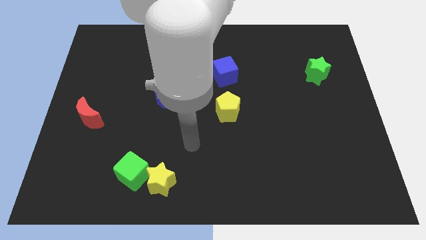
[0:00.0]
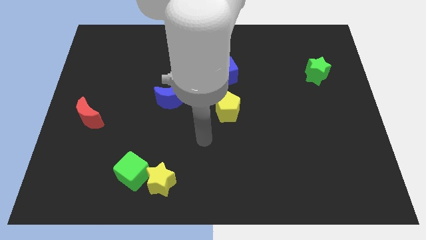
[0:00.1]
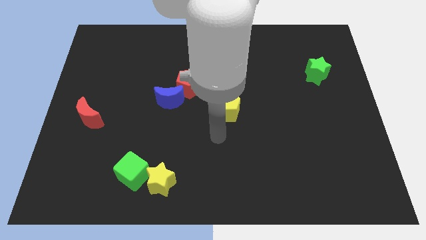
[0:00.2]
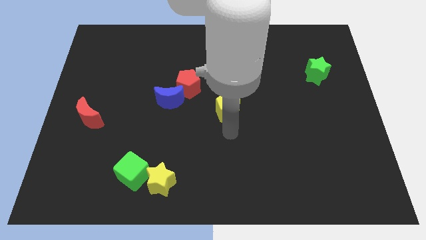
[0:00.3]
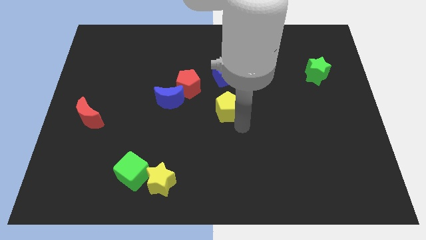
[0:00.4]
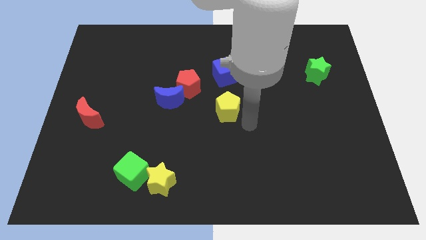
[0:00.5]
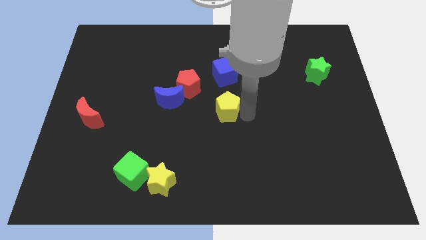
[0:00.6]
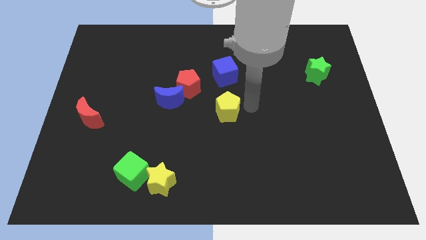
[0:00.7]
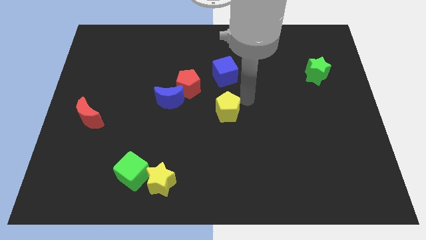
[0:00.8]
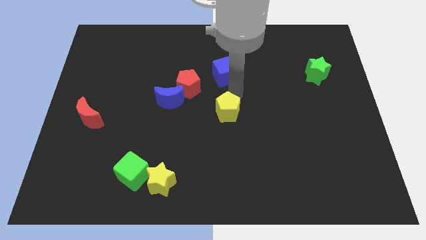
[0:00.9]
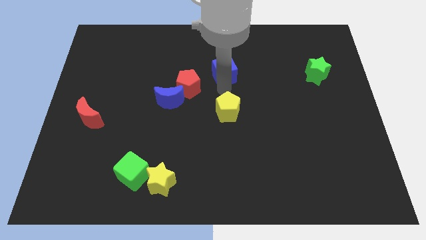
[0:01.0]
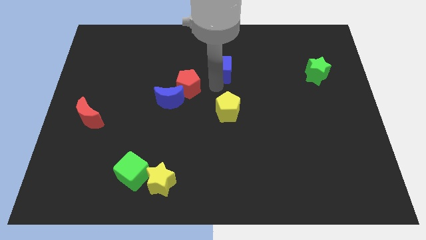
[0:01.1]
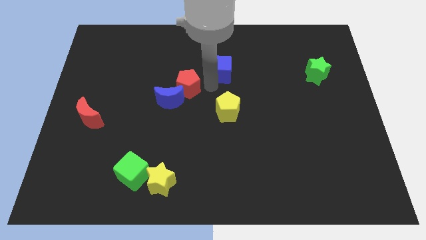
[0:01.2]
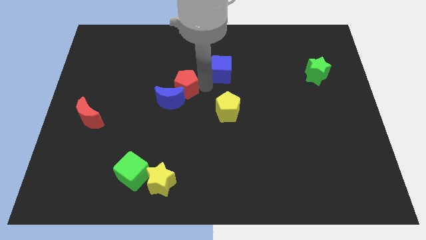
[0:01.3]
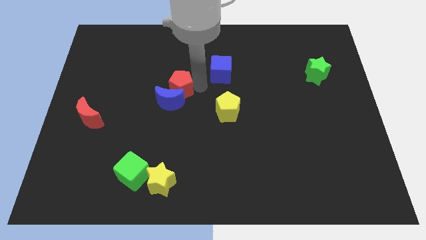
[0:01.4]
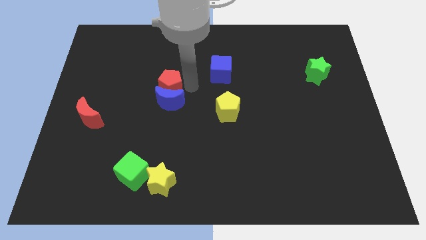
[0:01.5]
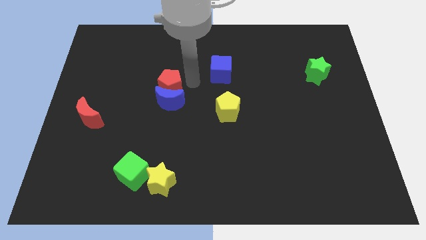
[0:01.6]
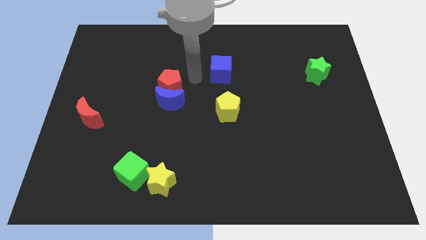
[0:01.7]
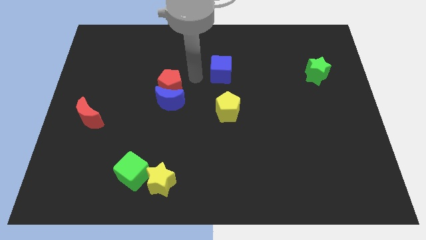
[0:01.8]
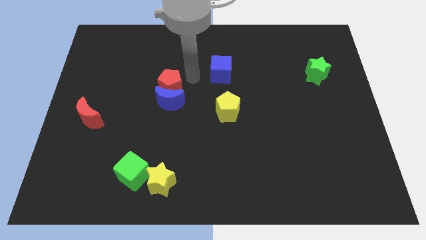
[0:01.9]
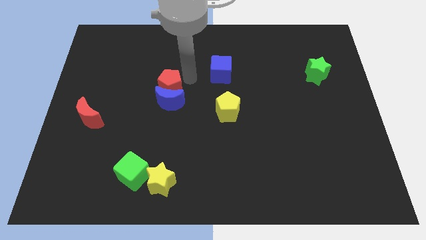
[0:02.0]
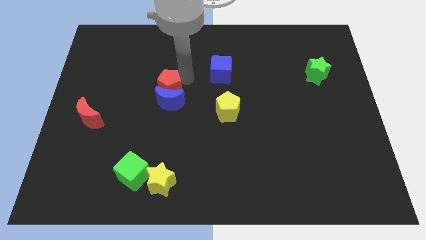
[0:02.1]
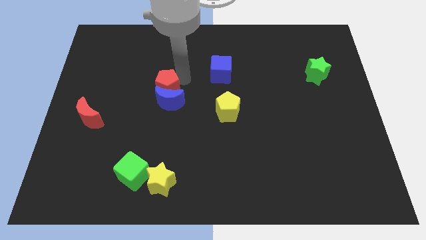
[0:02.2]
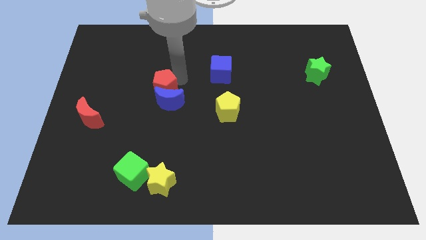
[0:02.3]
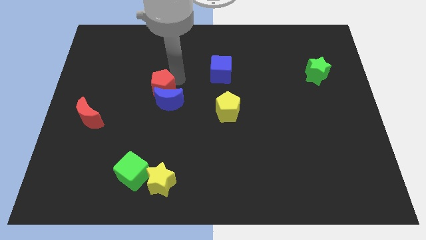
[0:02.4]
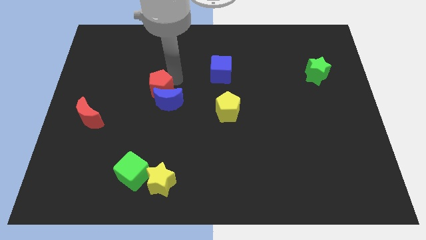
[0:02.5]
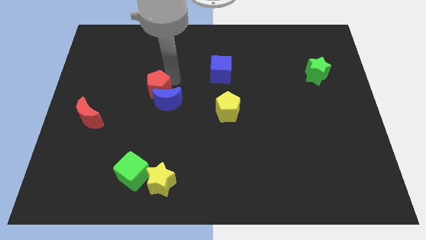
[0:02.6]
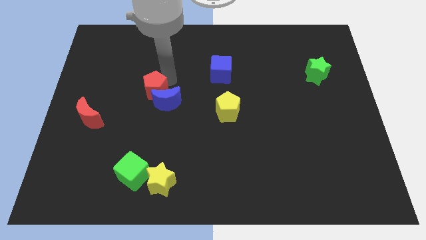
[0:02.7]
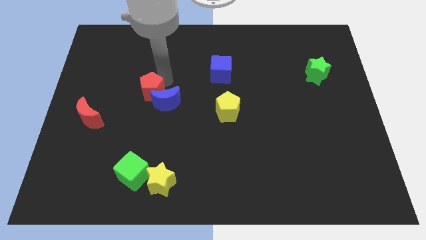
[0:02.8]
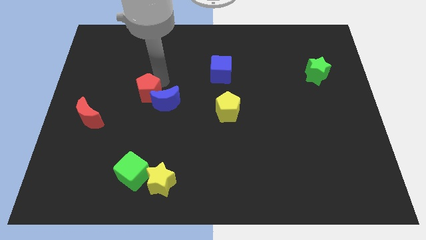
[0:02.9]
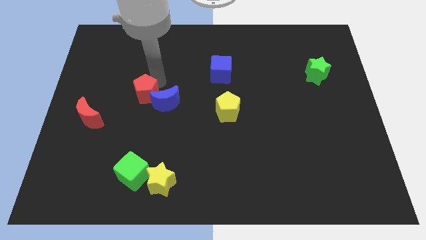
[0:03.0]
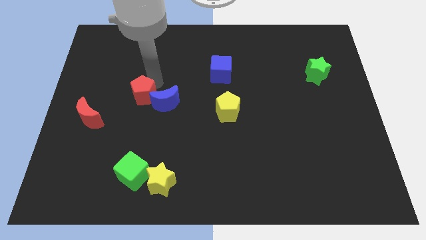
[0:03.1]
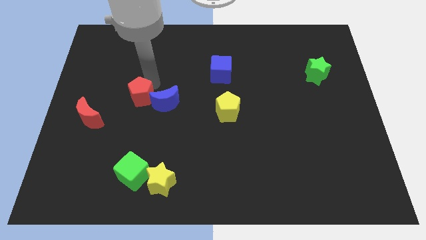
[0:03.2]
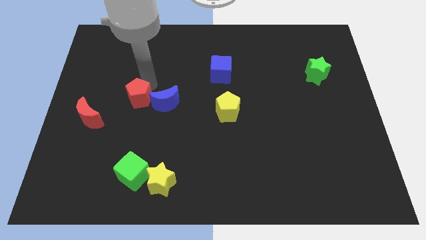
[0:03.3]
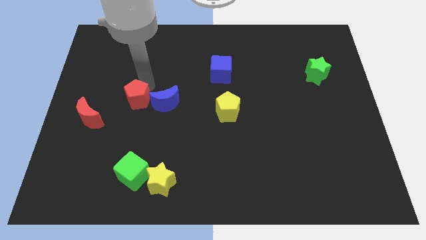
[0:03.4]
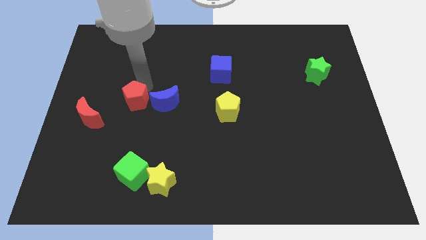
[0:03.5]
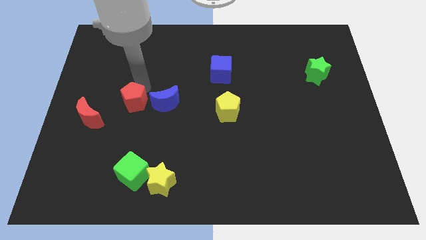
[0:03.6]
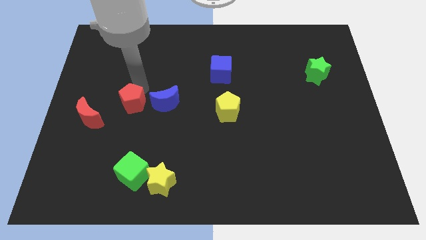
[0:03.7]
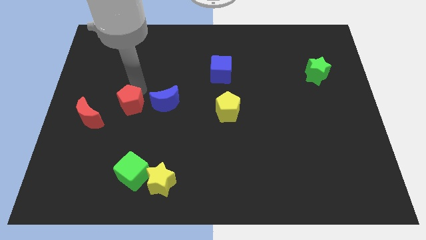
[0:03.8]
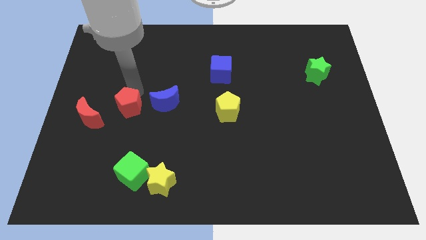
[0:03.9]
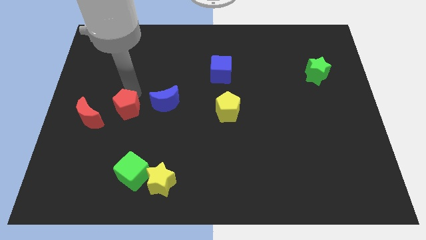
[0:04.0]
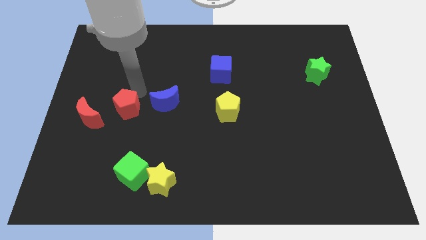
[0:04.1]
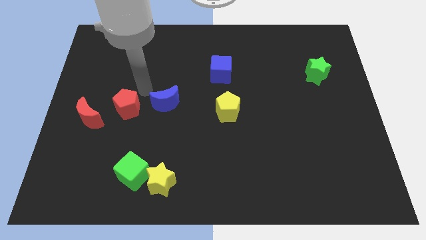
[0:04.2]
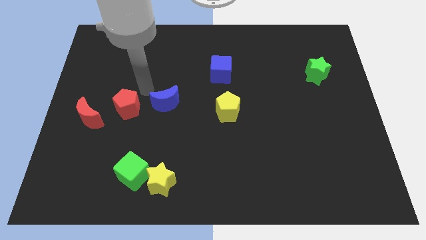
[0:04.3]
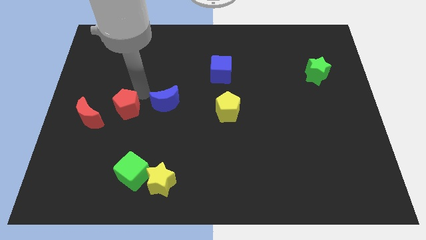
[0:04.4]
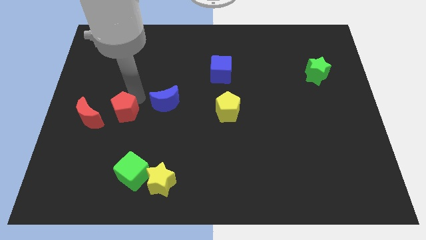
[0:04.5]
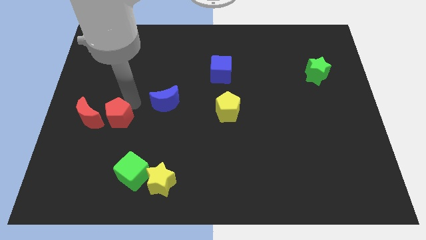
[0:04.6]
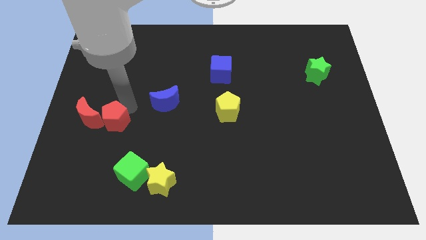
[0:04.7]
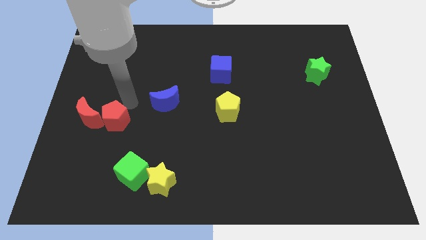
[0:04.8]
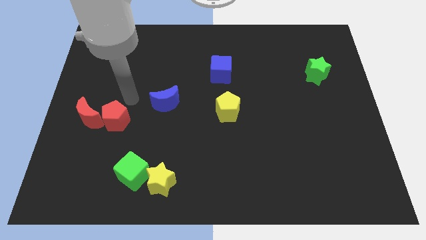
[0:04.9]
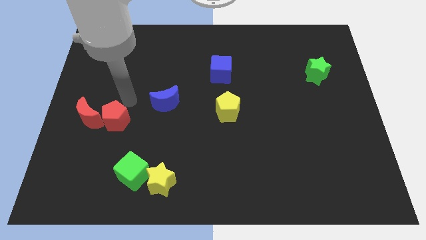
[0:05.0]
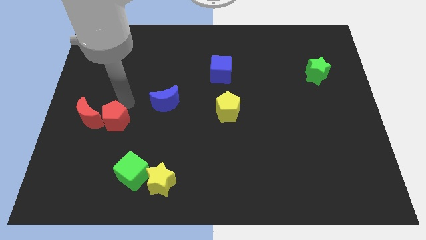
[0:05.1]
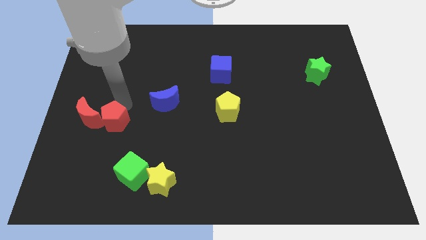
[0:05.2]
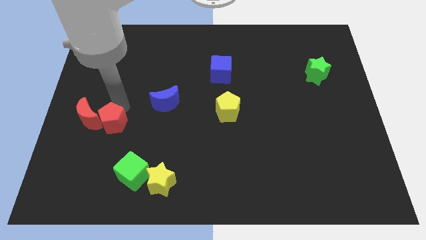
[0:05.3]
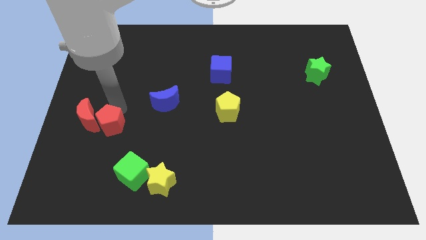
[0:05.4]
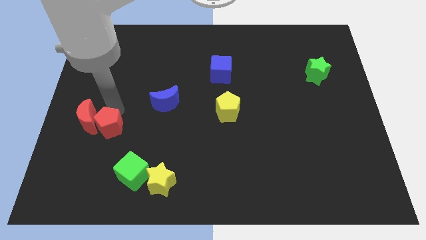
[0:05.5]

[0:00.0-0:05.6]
push the red pentagon diagonally downwards and left

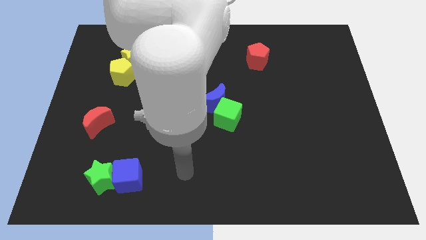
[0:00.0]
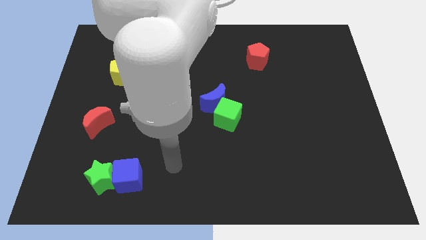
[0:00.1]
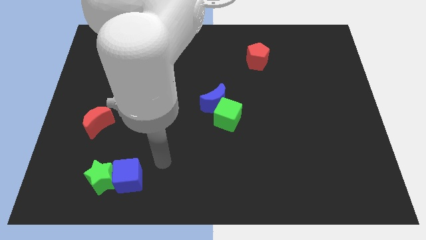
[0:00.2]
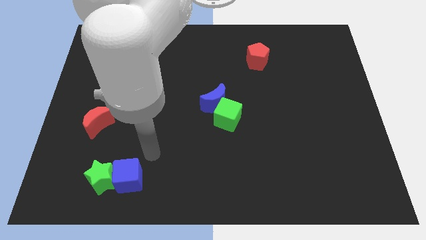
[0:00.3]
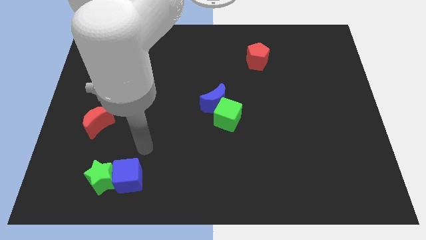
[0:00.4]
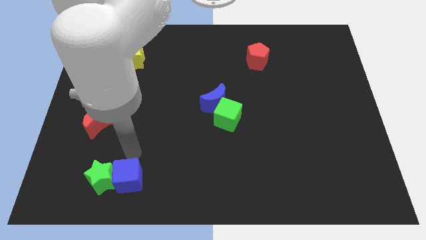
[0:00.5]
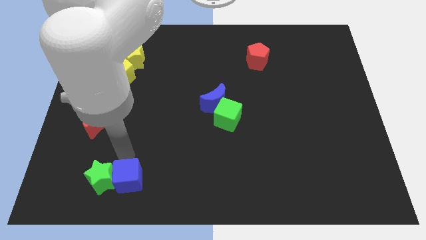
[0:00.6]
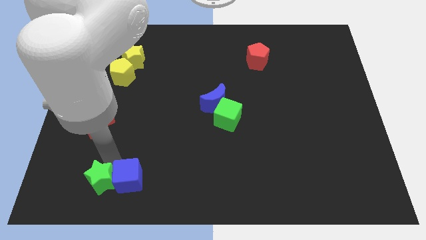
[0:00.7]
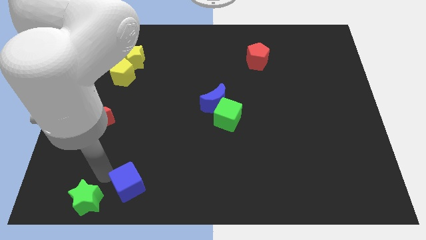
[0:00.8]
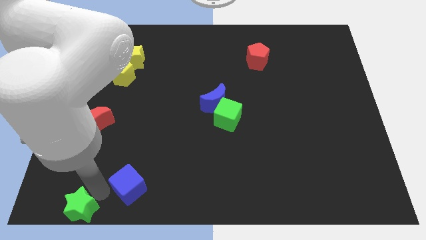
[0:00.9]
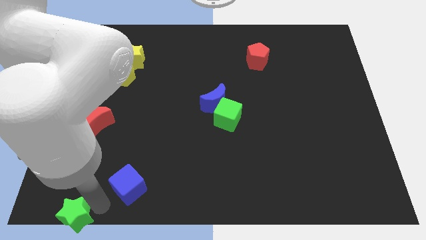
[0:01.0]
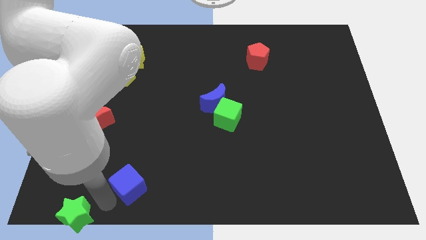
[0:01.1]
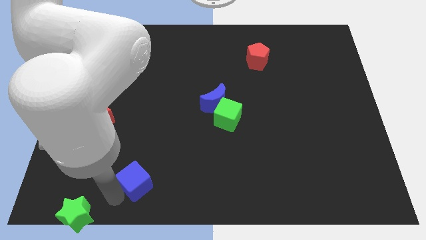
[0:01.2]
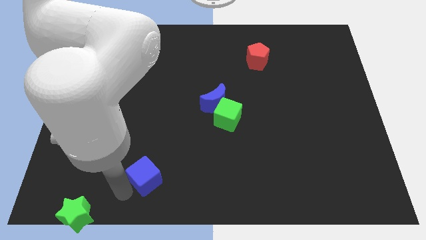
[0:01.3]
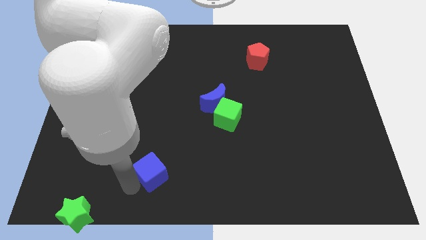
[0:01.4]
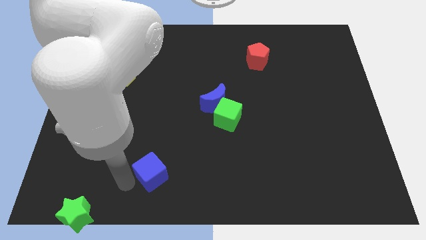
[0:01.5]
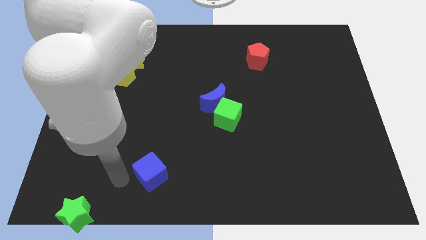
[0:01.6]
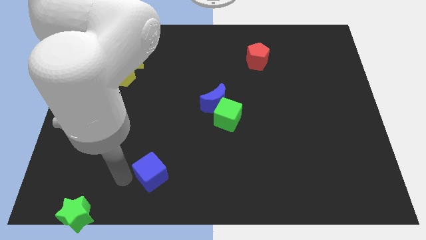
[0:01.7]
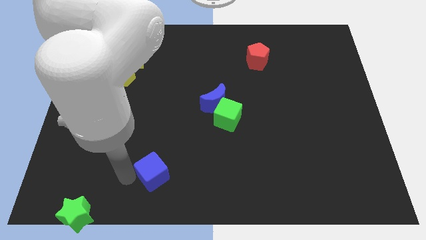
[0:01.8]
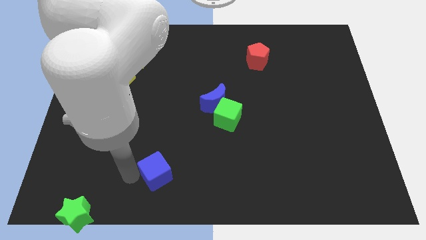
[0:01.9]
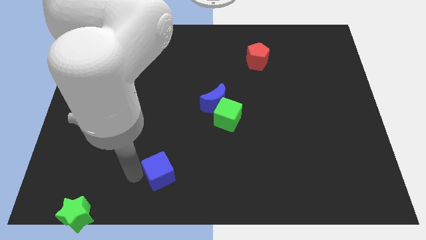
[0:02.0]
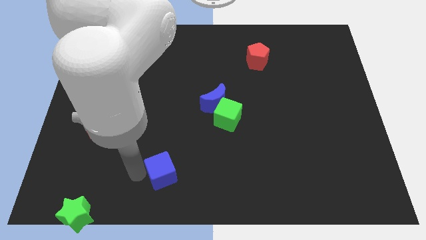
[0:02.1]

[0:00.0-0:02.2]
slide the blue cube a bit to the right

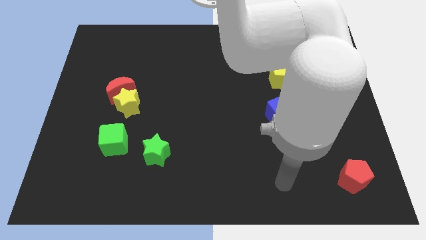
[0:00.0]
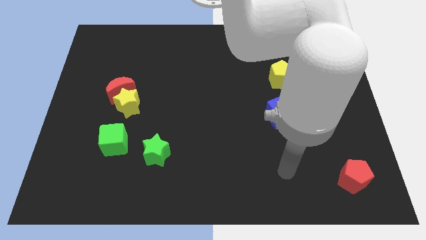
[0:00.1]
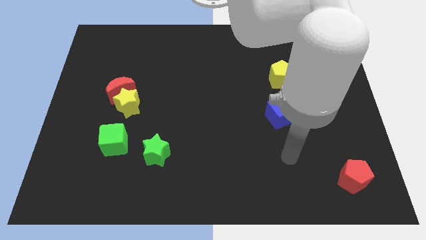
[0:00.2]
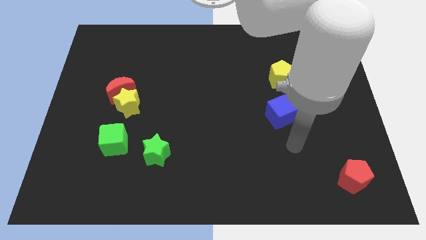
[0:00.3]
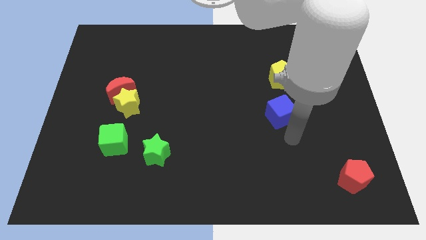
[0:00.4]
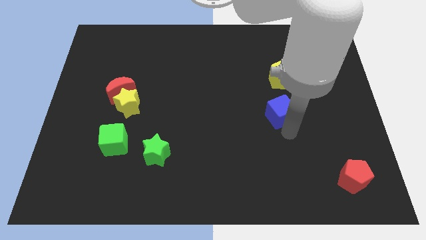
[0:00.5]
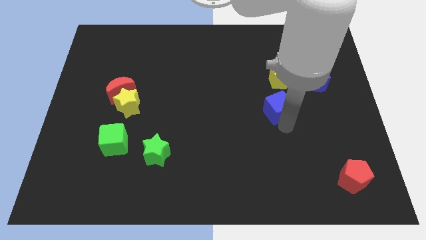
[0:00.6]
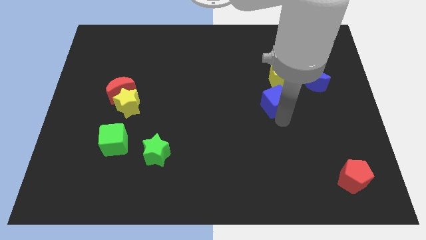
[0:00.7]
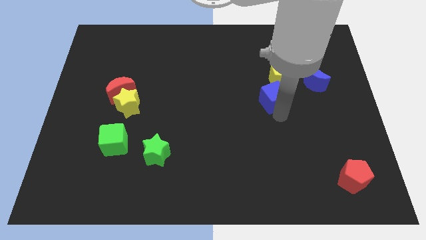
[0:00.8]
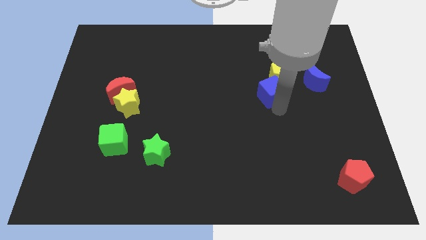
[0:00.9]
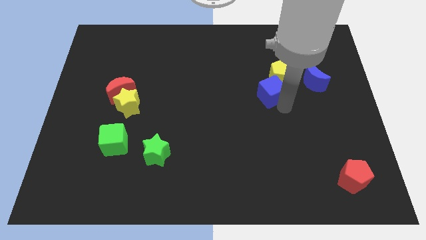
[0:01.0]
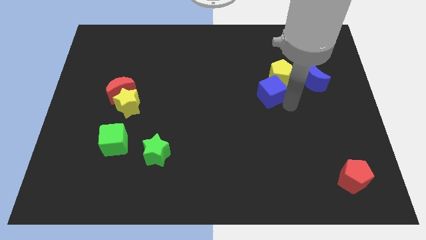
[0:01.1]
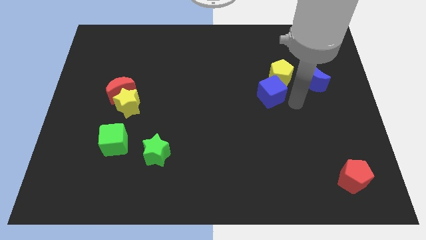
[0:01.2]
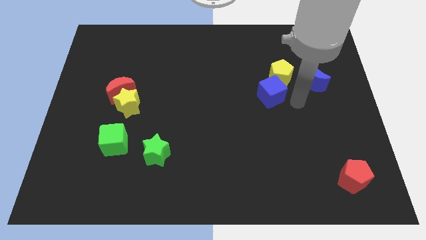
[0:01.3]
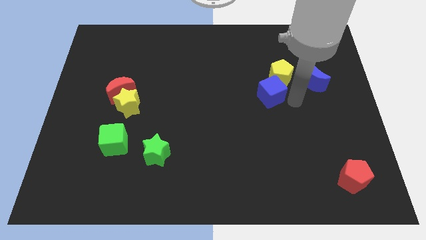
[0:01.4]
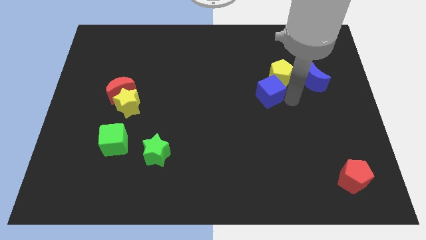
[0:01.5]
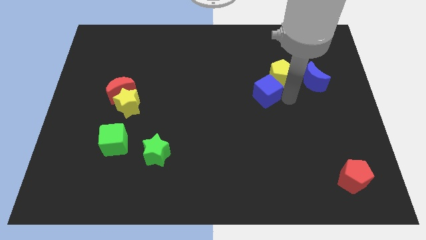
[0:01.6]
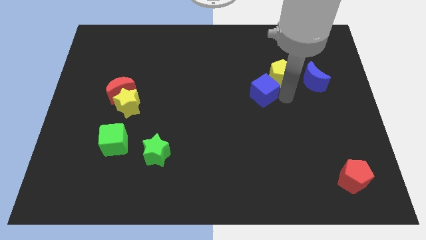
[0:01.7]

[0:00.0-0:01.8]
slightly push the blue cube up and to the left
